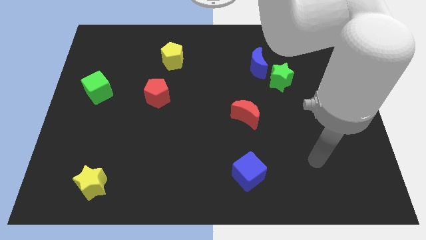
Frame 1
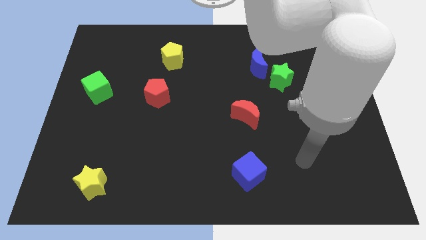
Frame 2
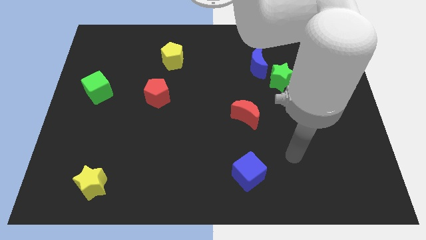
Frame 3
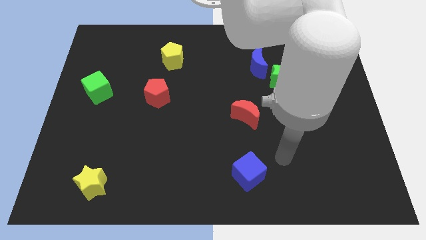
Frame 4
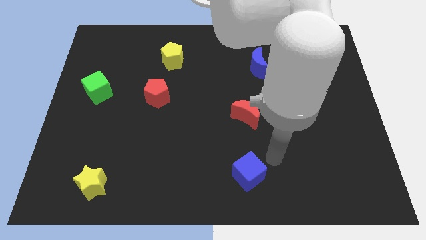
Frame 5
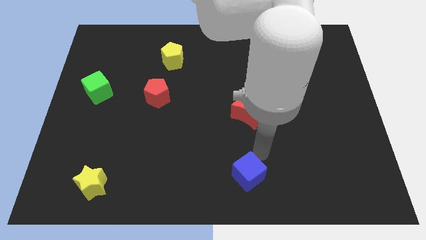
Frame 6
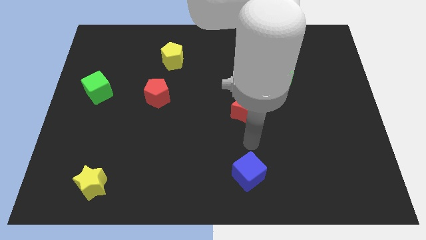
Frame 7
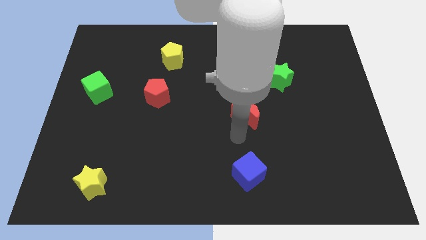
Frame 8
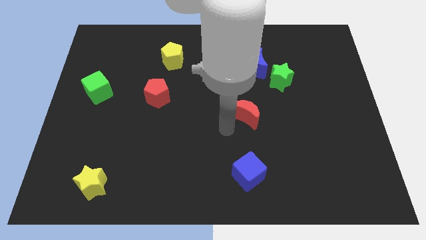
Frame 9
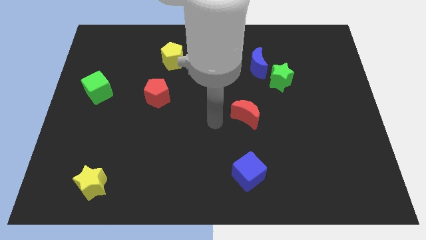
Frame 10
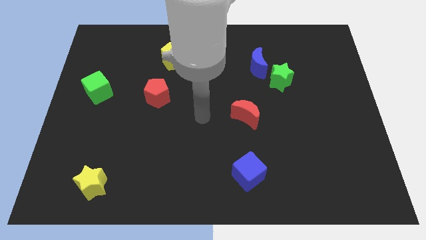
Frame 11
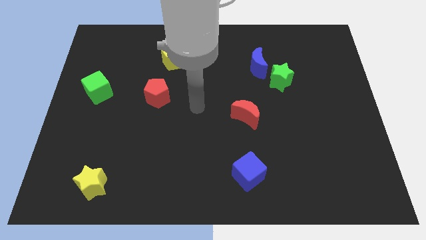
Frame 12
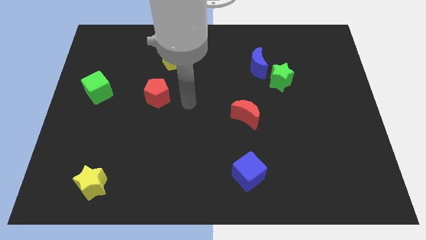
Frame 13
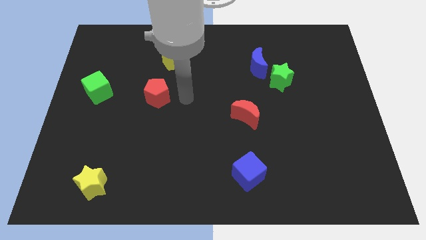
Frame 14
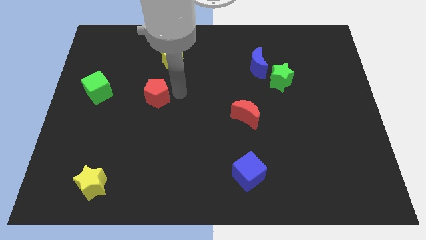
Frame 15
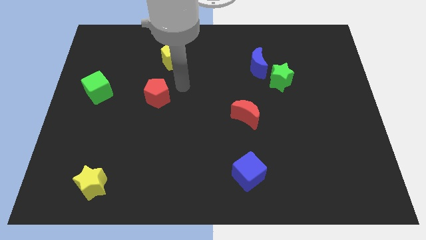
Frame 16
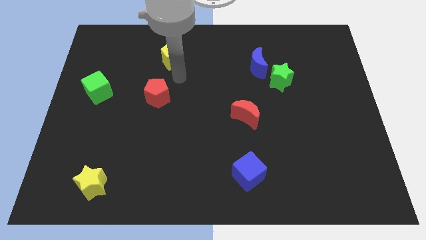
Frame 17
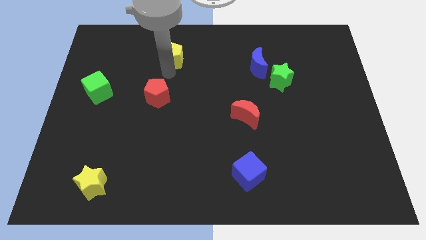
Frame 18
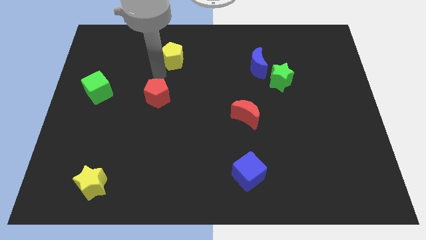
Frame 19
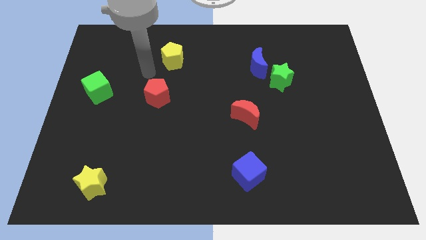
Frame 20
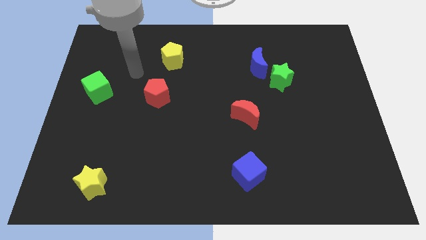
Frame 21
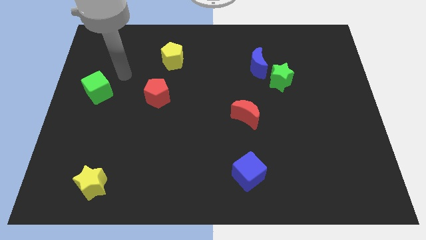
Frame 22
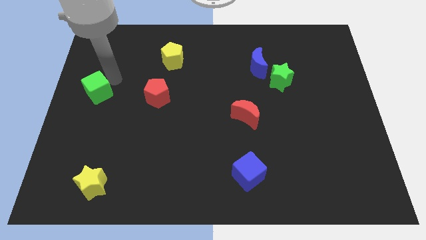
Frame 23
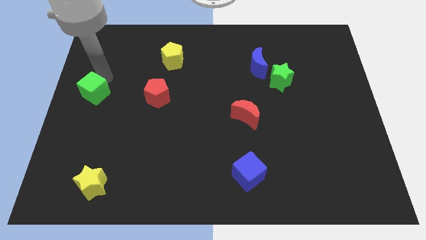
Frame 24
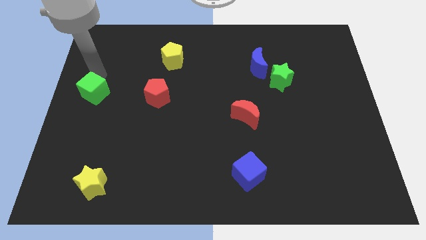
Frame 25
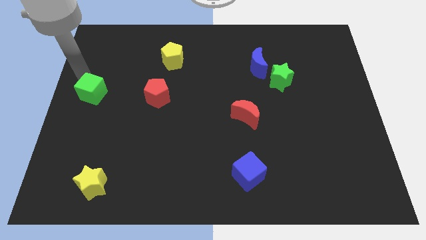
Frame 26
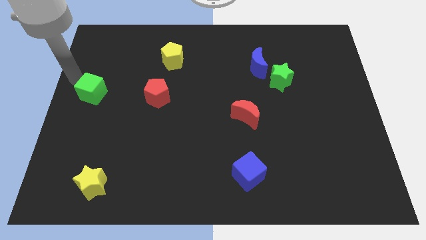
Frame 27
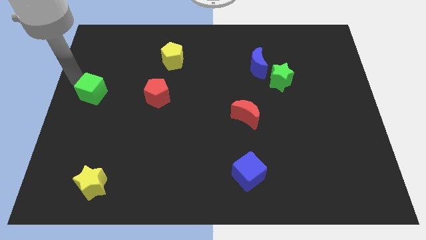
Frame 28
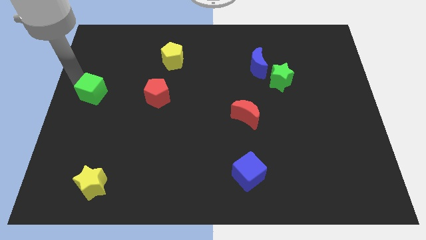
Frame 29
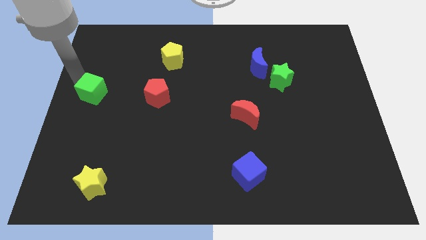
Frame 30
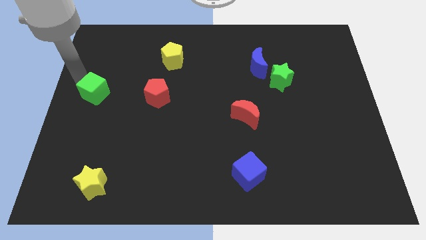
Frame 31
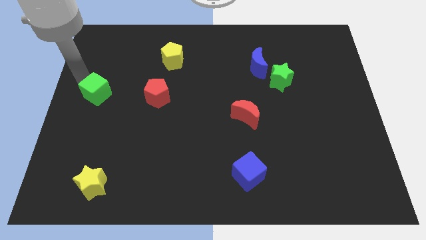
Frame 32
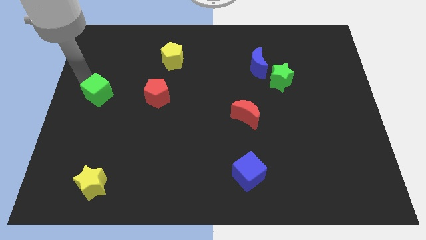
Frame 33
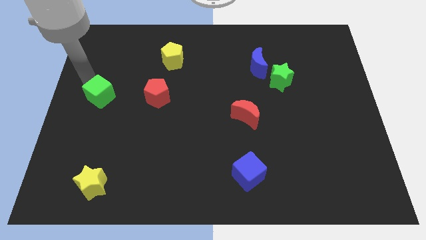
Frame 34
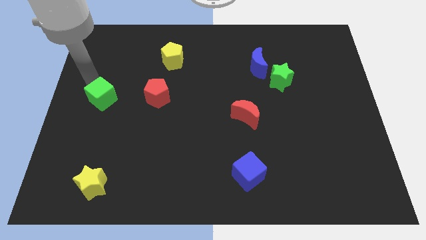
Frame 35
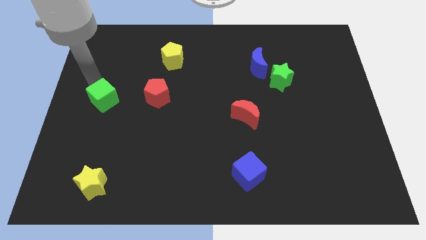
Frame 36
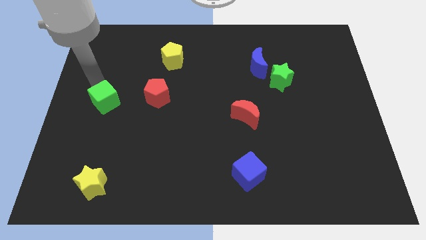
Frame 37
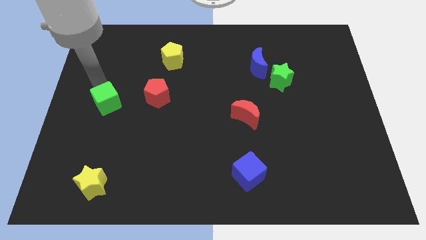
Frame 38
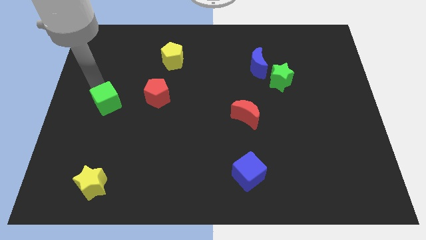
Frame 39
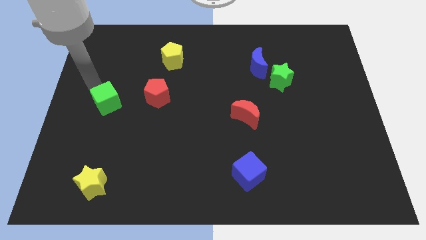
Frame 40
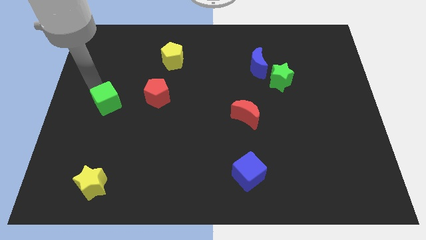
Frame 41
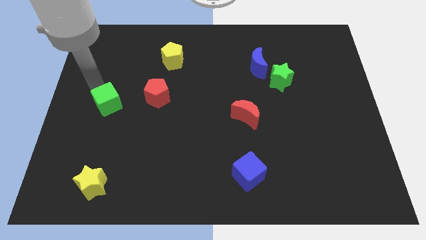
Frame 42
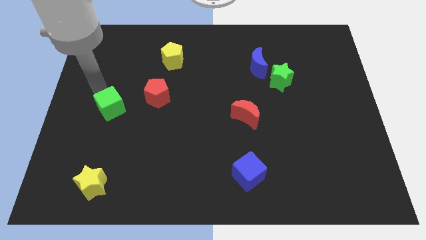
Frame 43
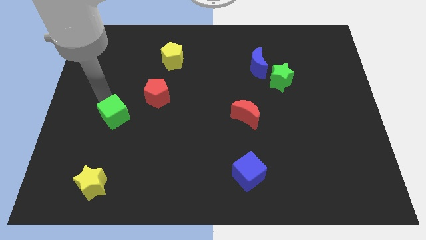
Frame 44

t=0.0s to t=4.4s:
move the green cube a little diagonally down and right

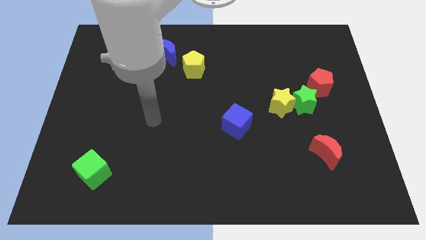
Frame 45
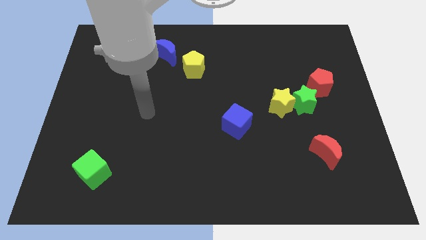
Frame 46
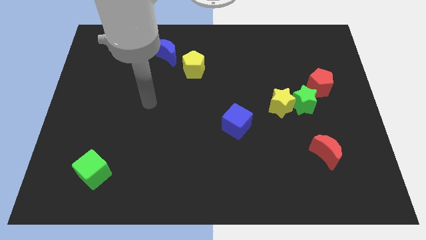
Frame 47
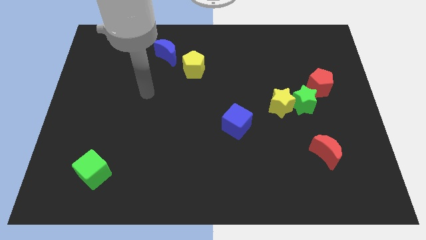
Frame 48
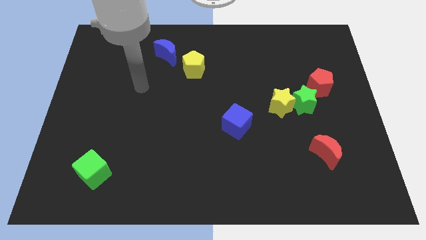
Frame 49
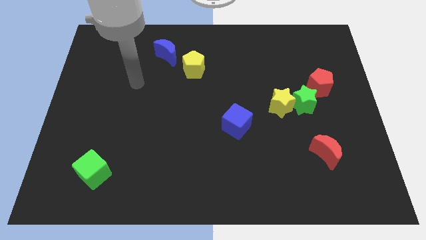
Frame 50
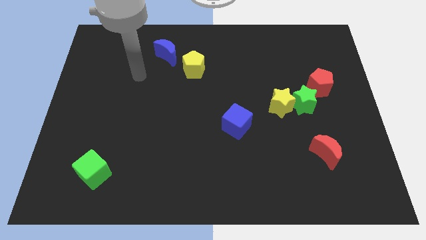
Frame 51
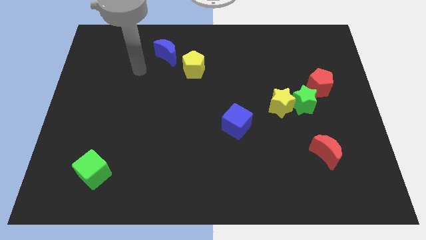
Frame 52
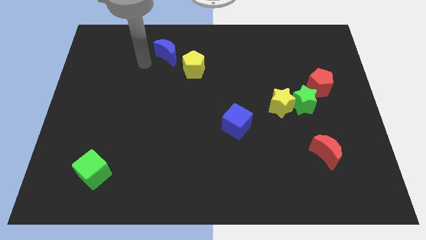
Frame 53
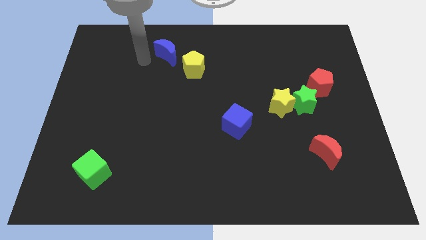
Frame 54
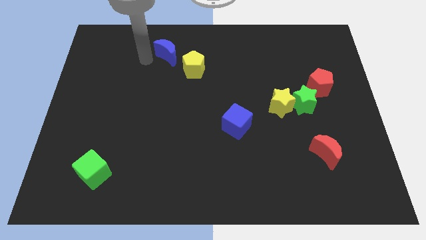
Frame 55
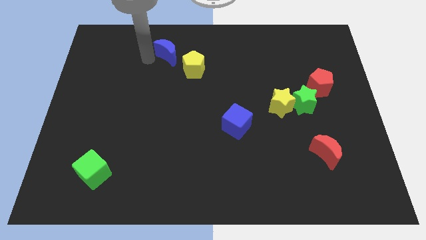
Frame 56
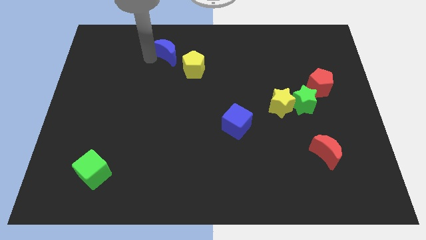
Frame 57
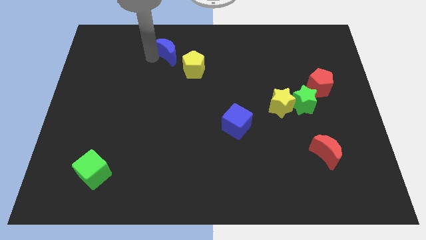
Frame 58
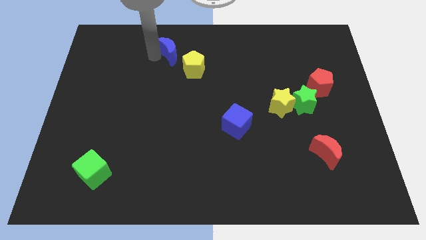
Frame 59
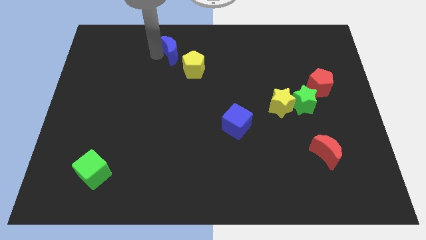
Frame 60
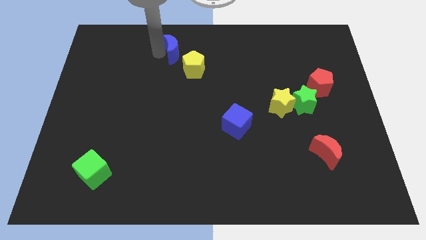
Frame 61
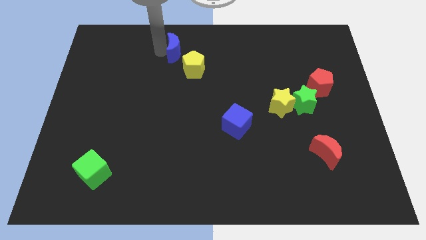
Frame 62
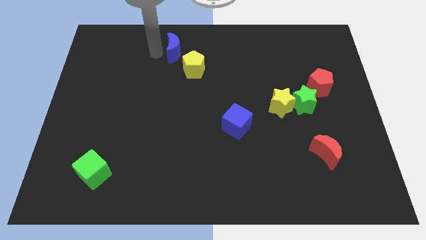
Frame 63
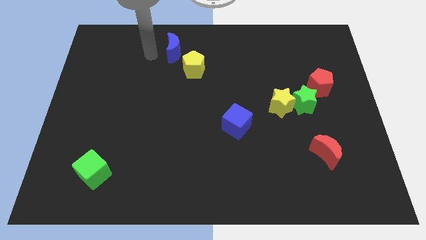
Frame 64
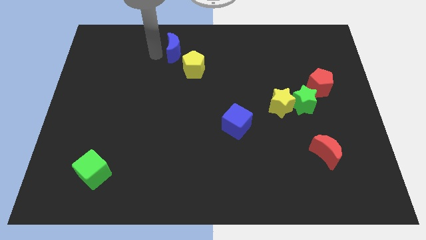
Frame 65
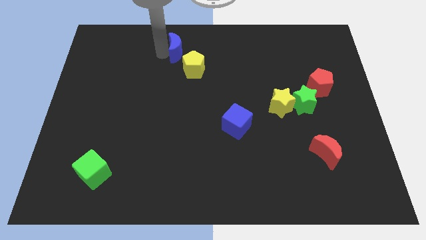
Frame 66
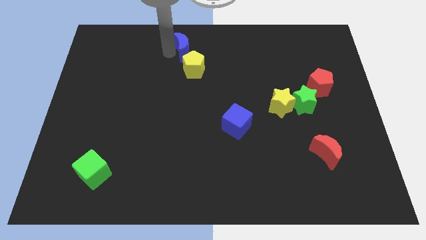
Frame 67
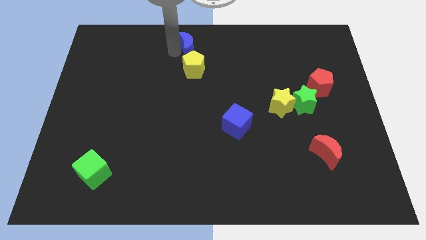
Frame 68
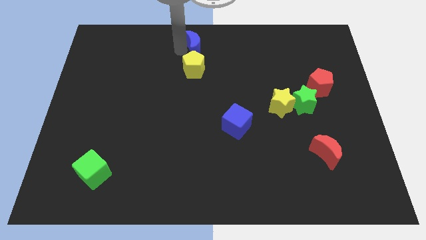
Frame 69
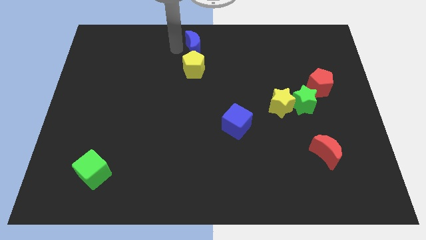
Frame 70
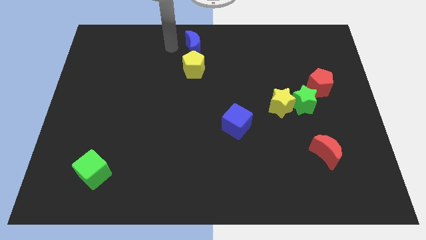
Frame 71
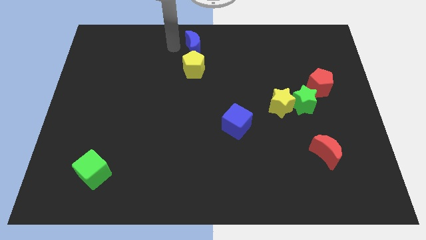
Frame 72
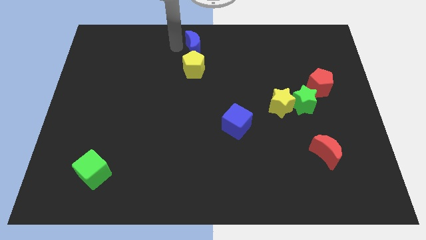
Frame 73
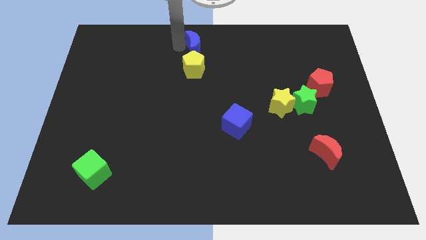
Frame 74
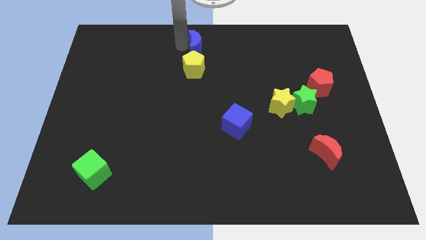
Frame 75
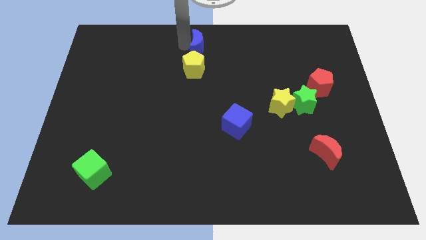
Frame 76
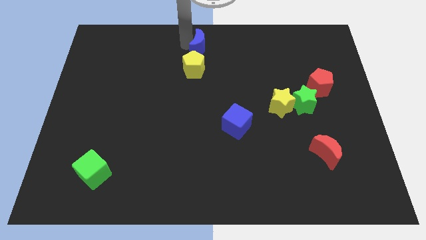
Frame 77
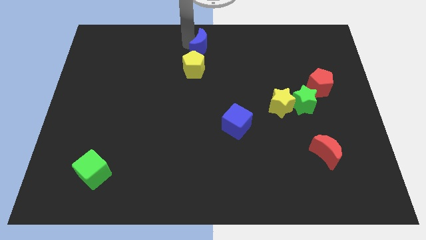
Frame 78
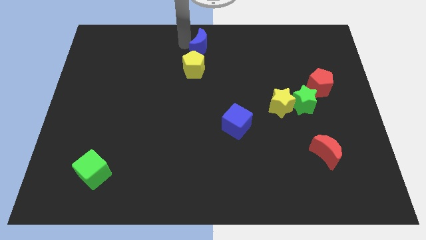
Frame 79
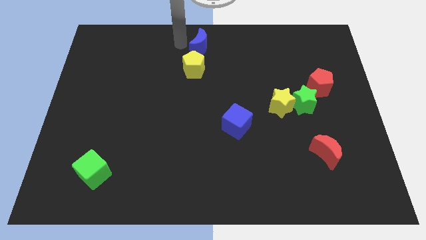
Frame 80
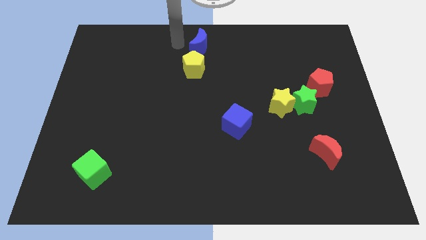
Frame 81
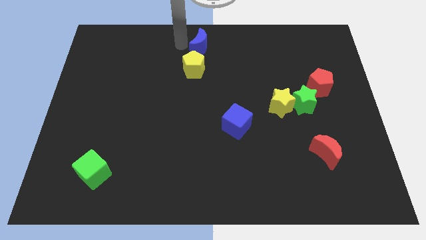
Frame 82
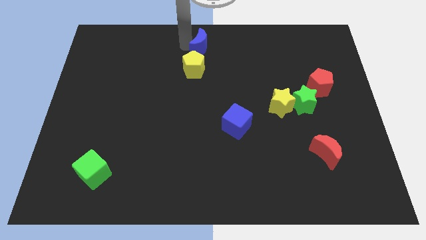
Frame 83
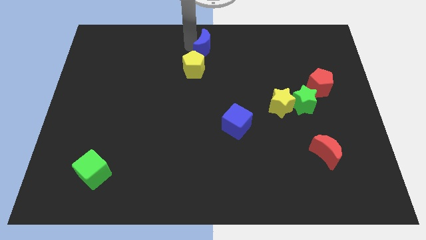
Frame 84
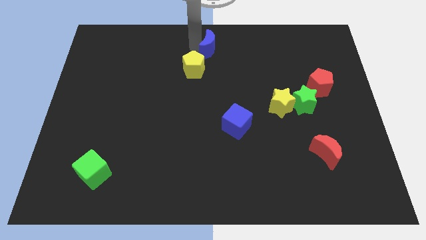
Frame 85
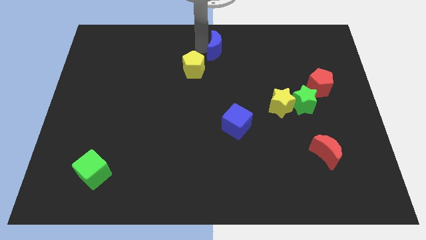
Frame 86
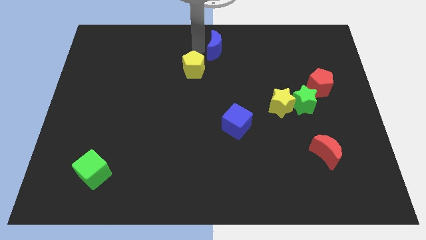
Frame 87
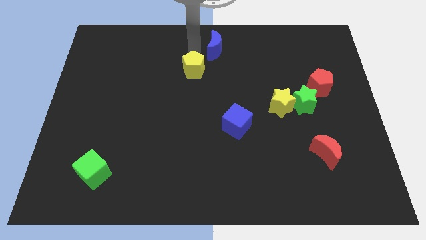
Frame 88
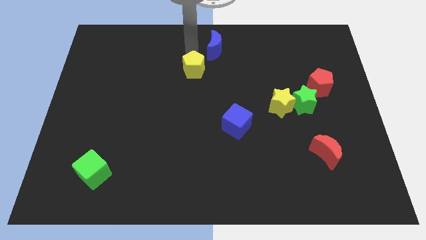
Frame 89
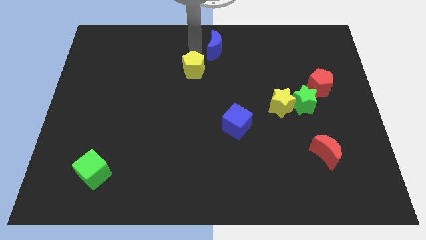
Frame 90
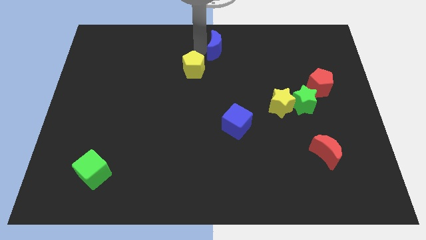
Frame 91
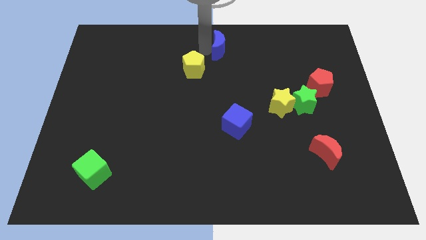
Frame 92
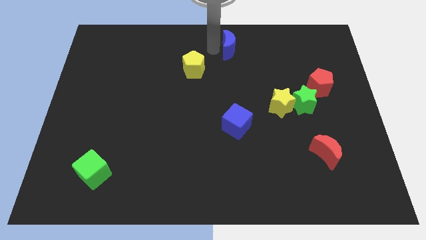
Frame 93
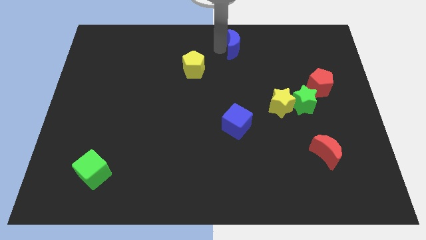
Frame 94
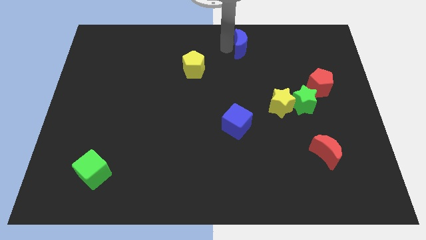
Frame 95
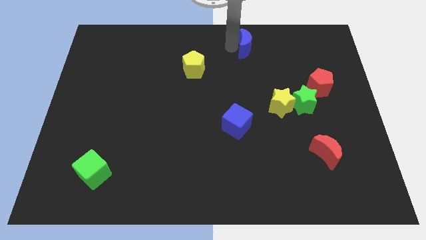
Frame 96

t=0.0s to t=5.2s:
slide the blue moon to the right
